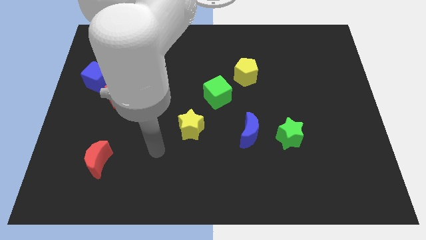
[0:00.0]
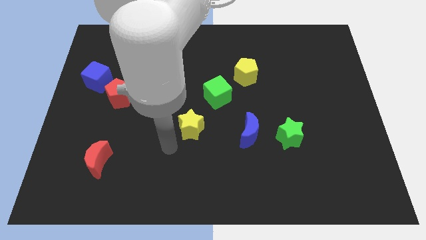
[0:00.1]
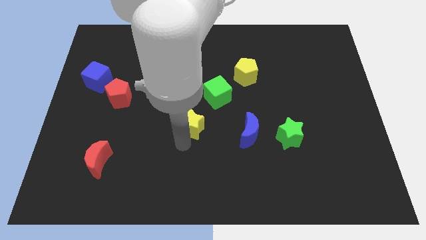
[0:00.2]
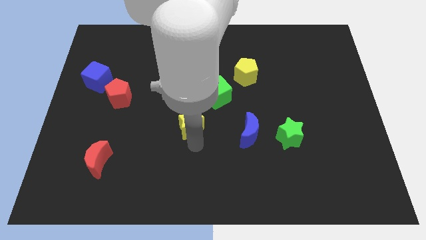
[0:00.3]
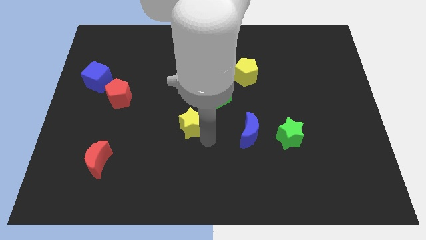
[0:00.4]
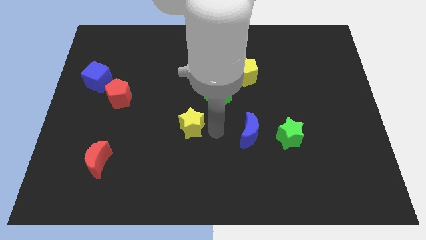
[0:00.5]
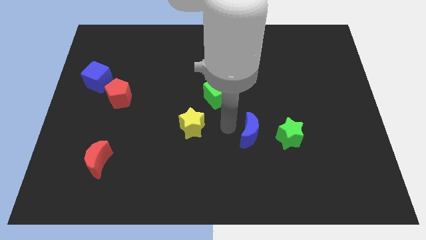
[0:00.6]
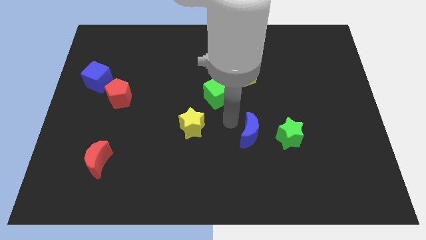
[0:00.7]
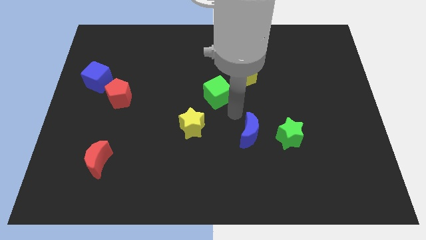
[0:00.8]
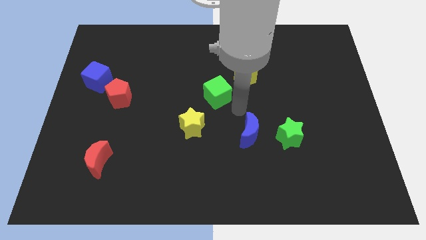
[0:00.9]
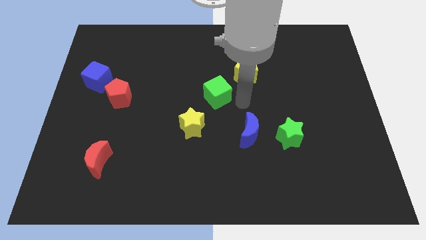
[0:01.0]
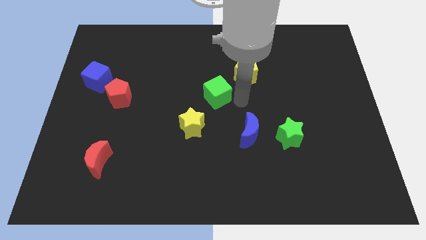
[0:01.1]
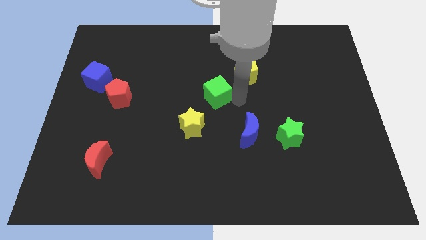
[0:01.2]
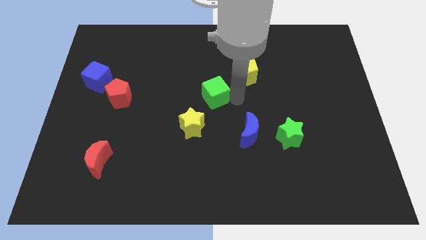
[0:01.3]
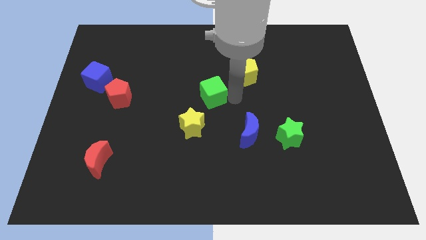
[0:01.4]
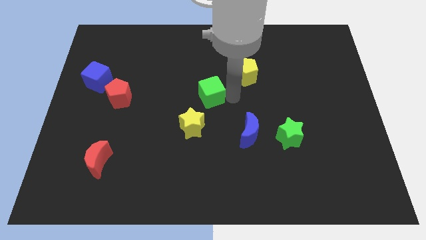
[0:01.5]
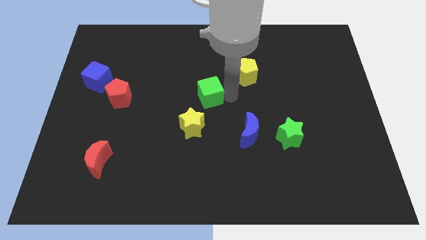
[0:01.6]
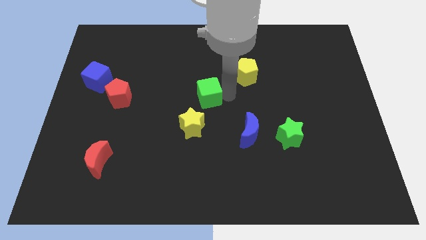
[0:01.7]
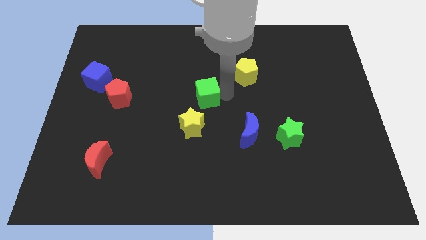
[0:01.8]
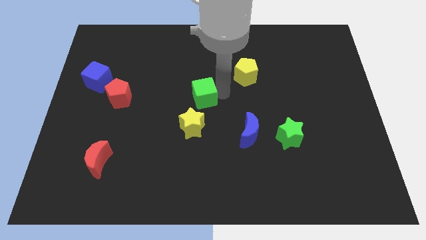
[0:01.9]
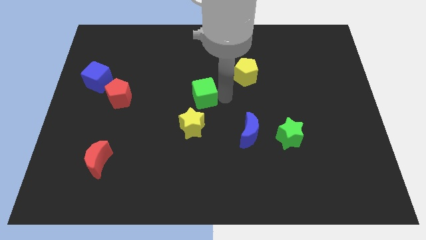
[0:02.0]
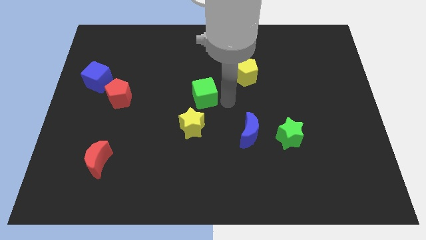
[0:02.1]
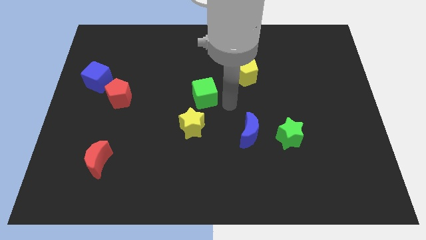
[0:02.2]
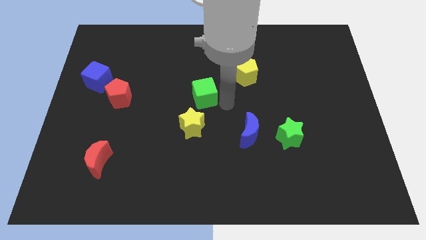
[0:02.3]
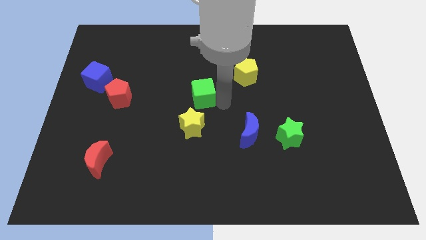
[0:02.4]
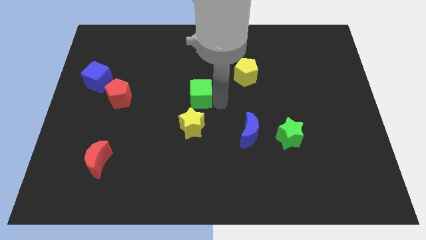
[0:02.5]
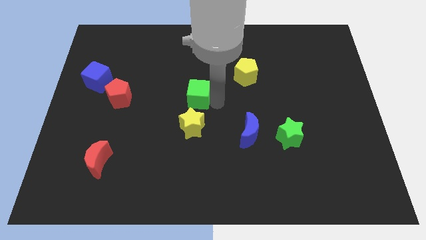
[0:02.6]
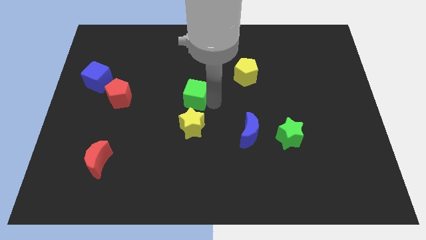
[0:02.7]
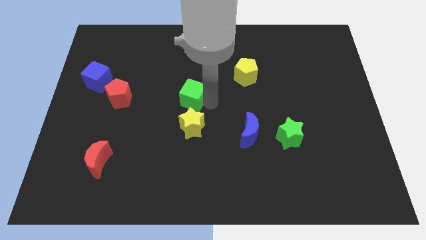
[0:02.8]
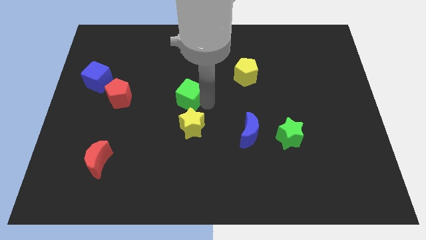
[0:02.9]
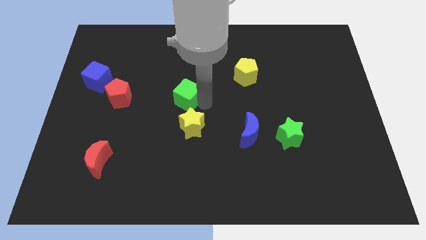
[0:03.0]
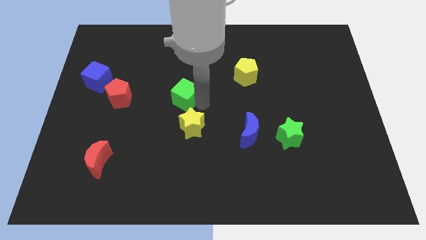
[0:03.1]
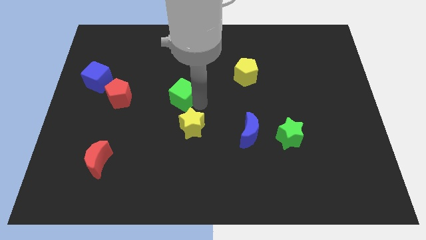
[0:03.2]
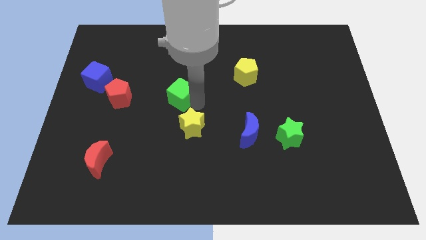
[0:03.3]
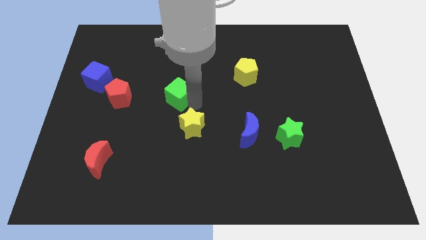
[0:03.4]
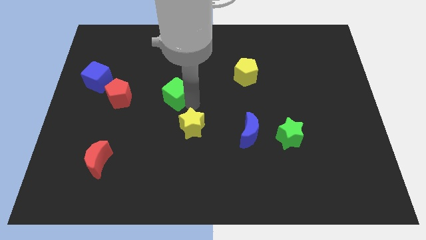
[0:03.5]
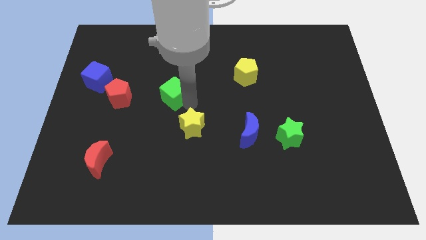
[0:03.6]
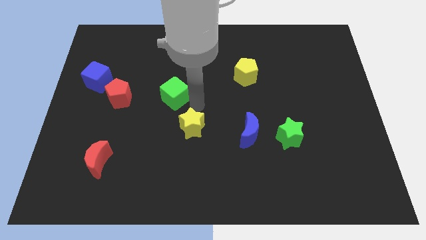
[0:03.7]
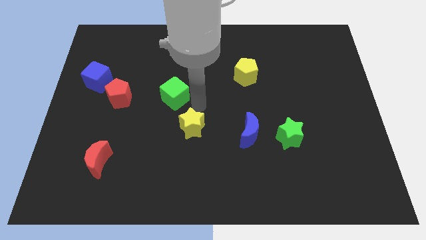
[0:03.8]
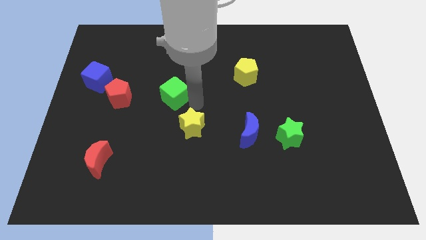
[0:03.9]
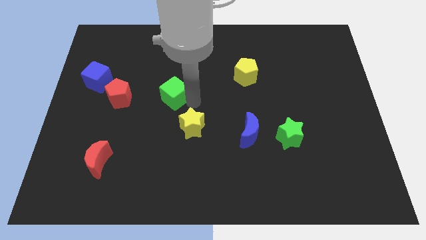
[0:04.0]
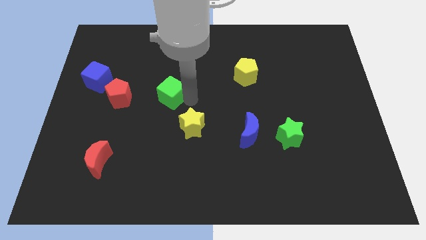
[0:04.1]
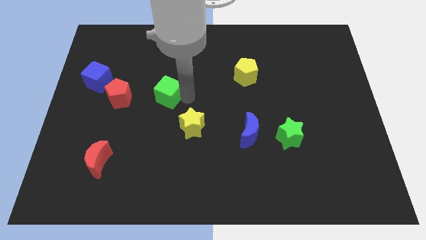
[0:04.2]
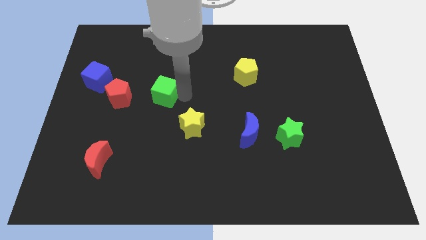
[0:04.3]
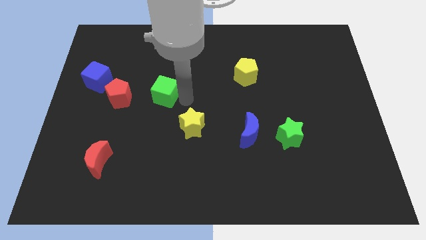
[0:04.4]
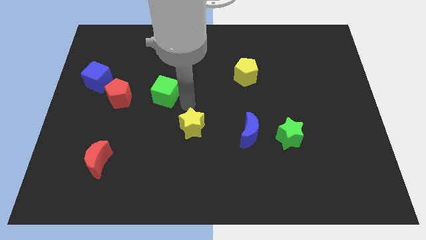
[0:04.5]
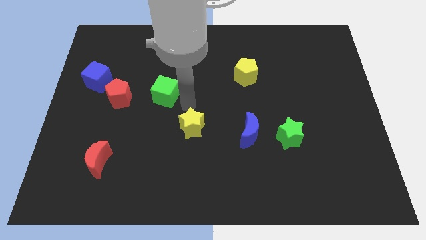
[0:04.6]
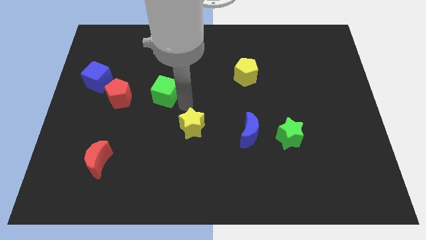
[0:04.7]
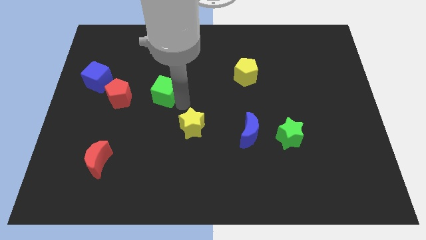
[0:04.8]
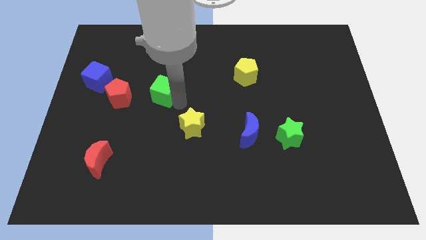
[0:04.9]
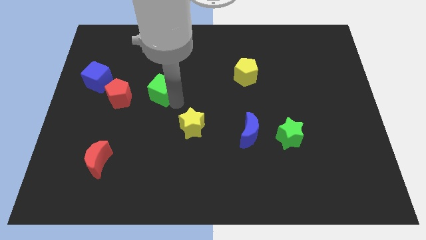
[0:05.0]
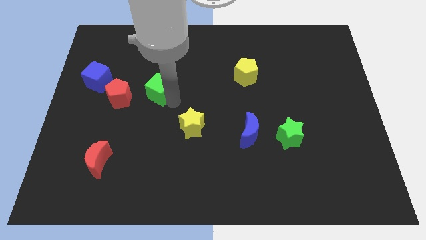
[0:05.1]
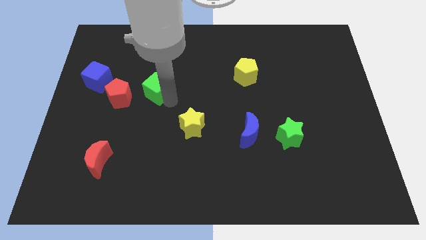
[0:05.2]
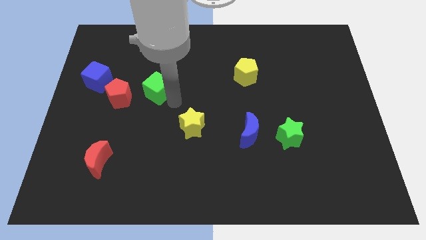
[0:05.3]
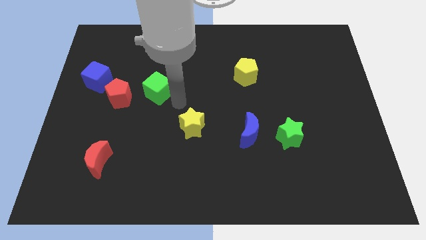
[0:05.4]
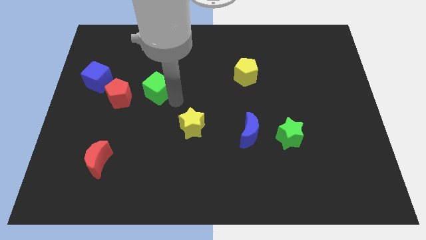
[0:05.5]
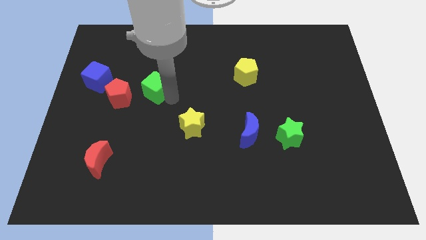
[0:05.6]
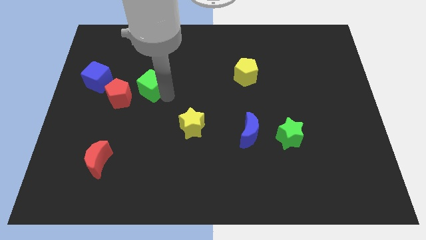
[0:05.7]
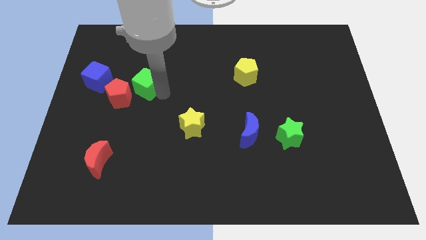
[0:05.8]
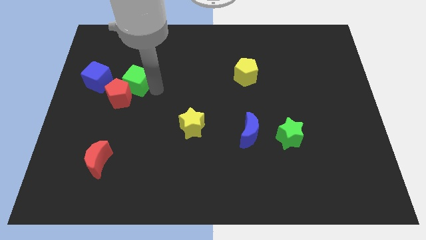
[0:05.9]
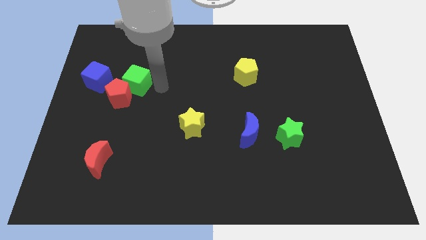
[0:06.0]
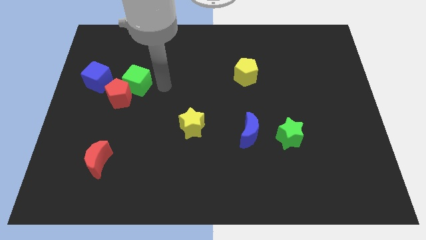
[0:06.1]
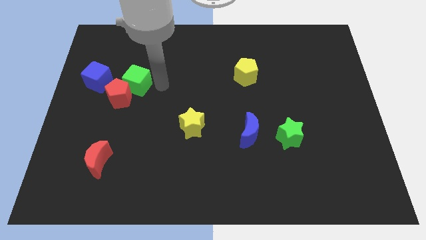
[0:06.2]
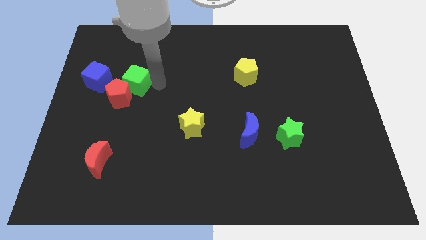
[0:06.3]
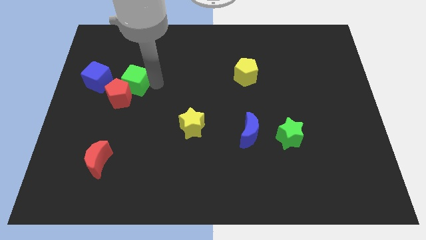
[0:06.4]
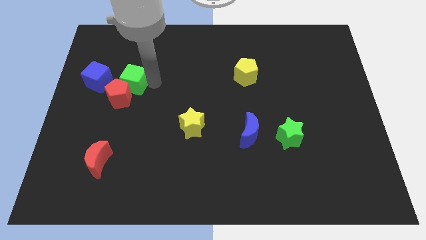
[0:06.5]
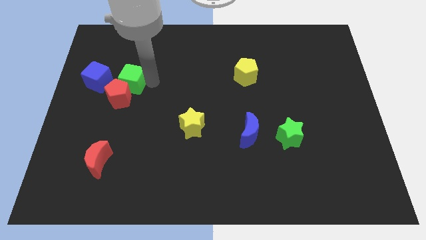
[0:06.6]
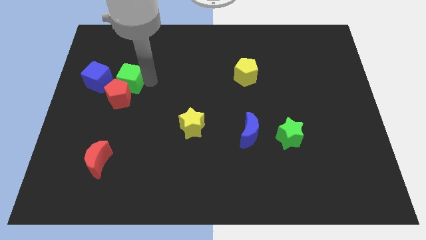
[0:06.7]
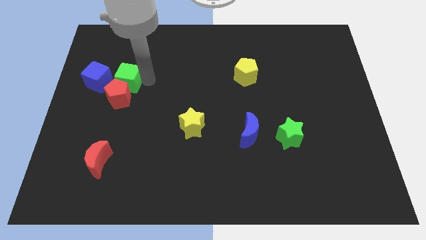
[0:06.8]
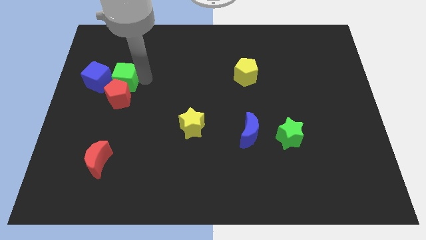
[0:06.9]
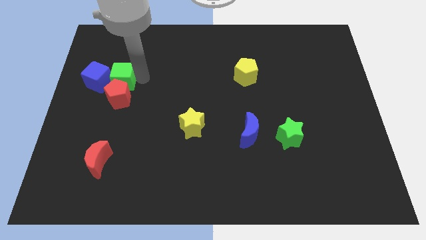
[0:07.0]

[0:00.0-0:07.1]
put the green cube towards the blue cube

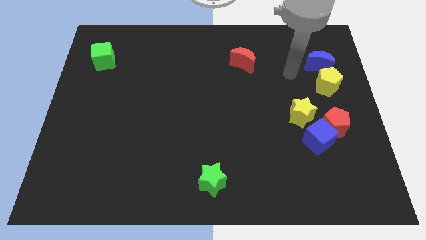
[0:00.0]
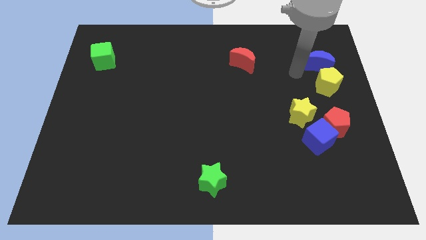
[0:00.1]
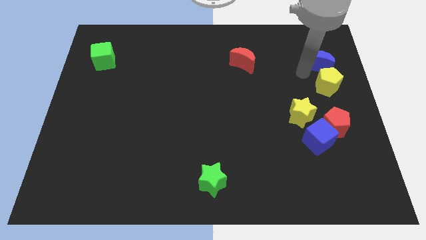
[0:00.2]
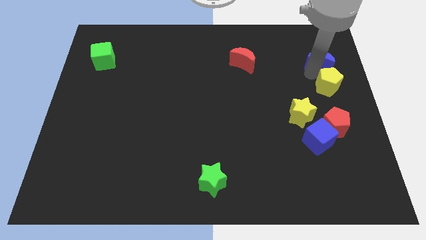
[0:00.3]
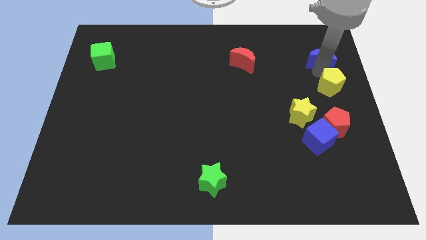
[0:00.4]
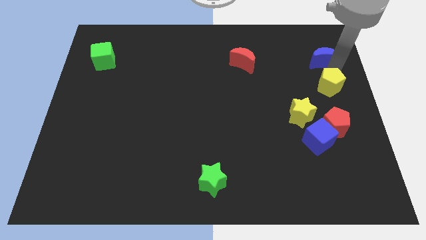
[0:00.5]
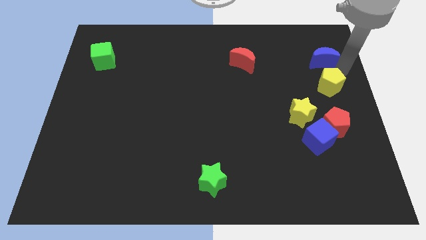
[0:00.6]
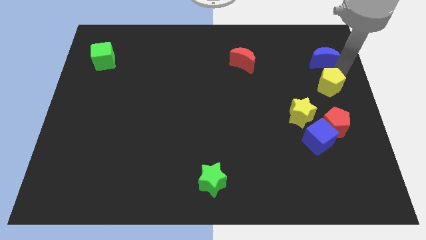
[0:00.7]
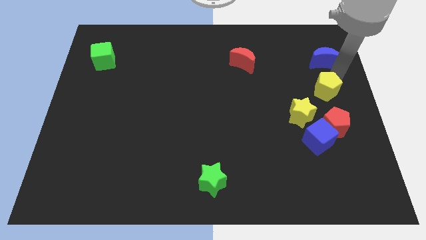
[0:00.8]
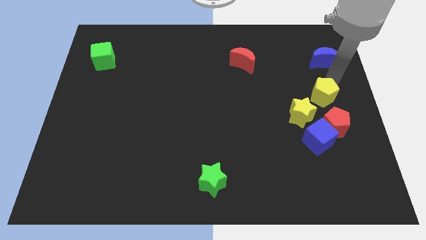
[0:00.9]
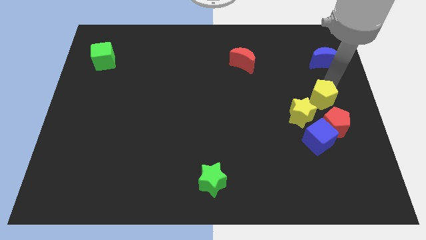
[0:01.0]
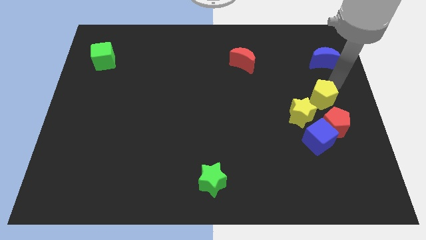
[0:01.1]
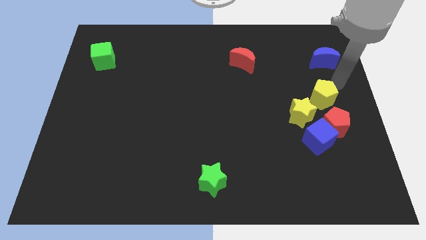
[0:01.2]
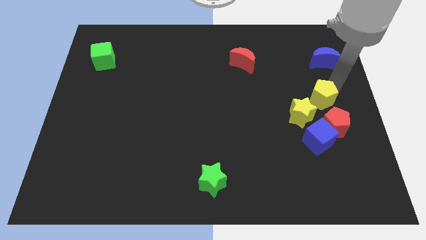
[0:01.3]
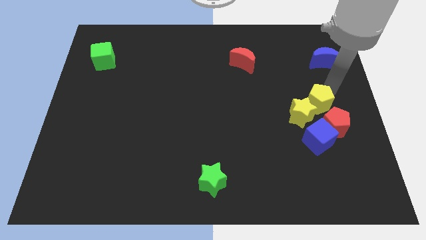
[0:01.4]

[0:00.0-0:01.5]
slide the yellow pentagon towards the yellow star

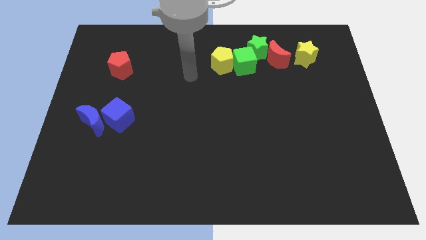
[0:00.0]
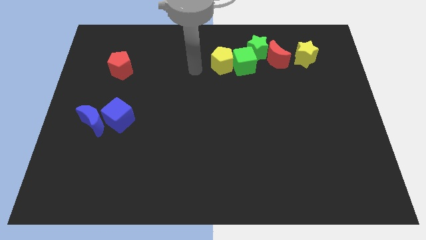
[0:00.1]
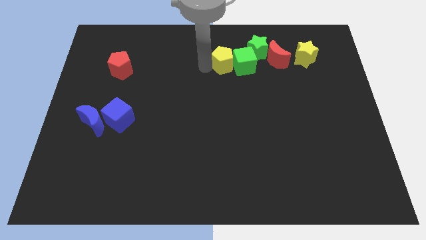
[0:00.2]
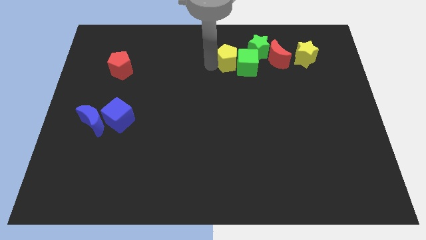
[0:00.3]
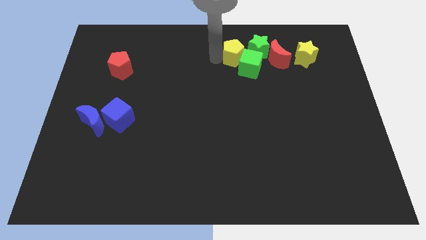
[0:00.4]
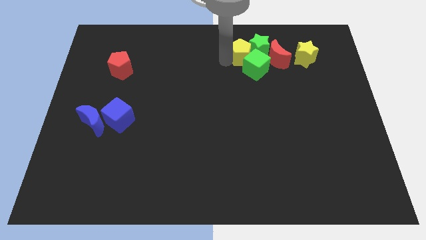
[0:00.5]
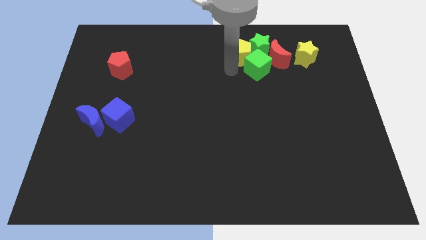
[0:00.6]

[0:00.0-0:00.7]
push the green cube to the red moon
